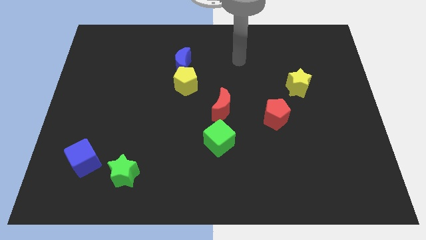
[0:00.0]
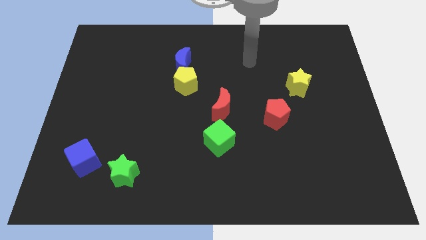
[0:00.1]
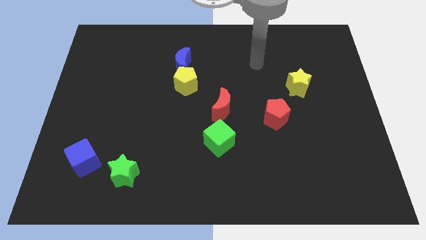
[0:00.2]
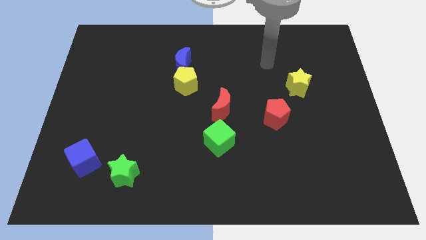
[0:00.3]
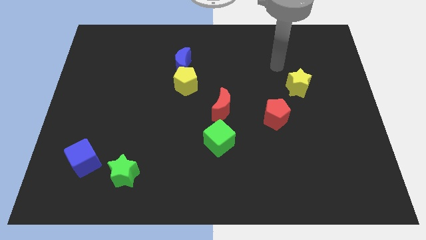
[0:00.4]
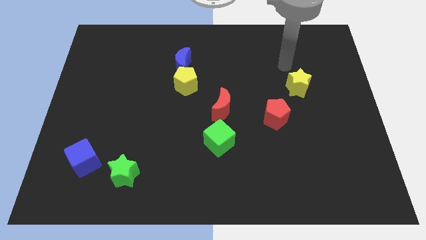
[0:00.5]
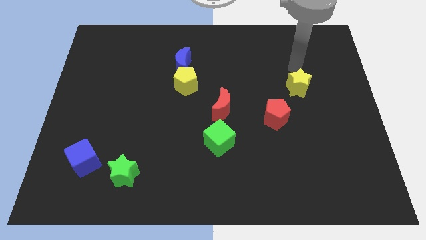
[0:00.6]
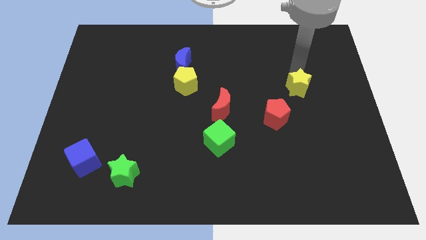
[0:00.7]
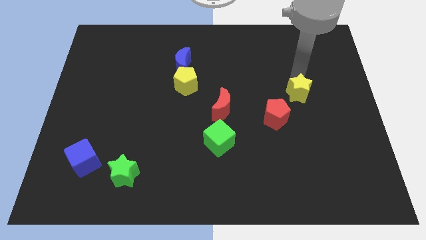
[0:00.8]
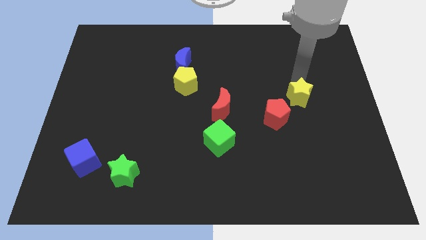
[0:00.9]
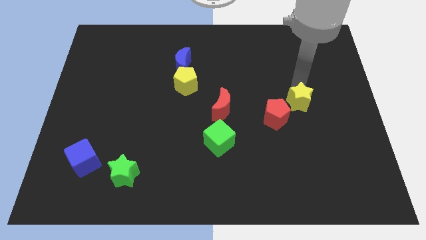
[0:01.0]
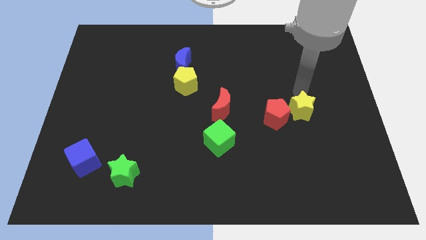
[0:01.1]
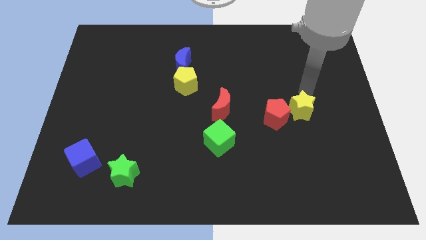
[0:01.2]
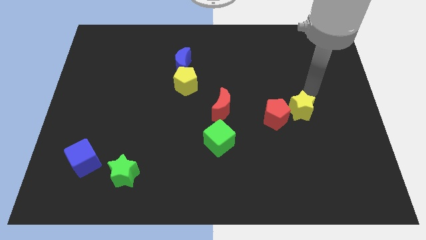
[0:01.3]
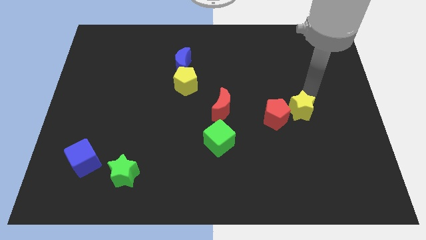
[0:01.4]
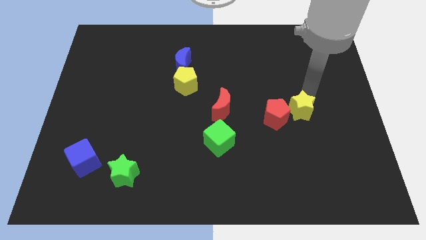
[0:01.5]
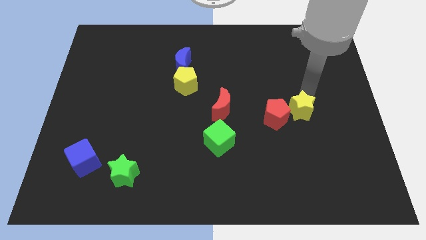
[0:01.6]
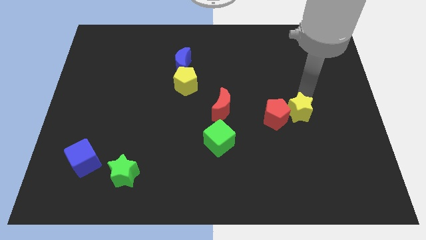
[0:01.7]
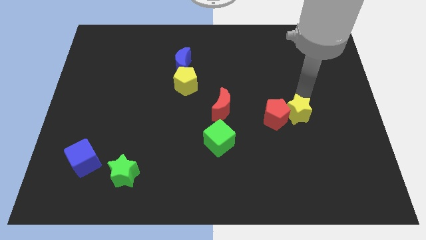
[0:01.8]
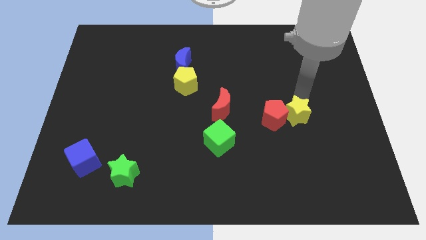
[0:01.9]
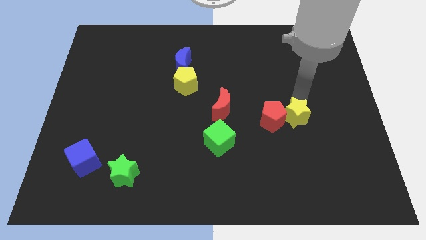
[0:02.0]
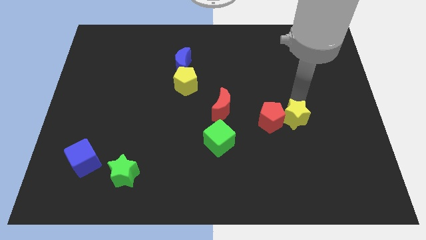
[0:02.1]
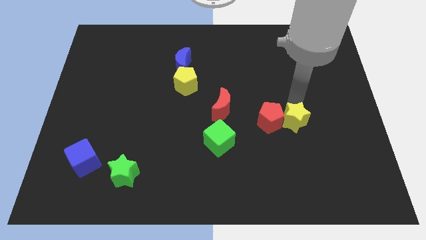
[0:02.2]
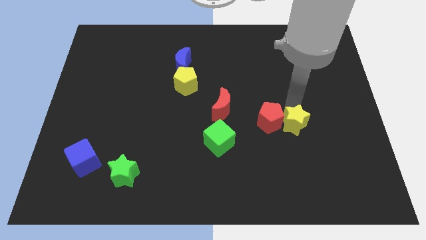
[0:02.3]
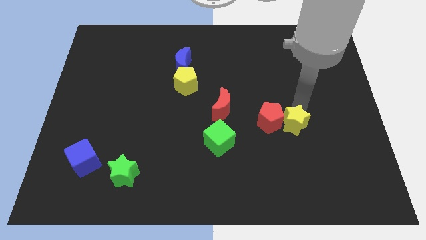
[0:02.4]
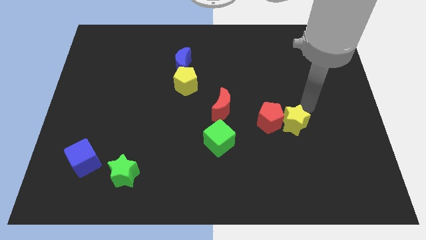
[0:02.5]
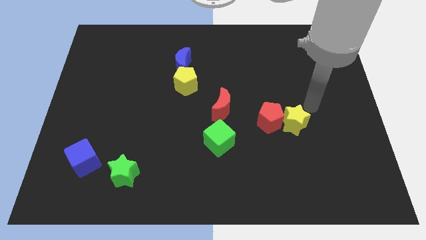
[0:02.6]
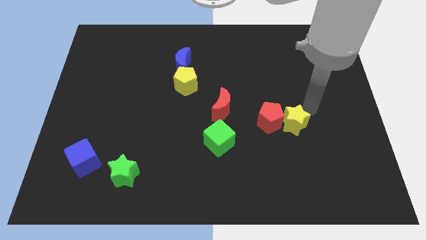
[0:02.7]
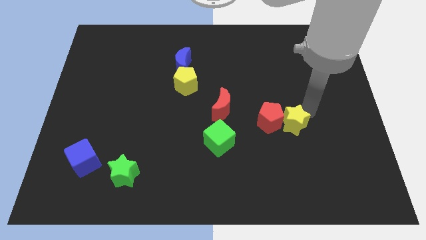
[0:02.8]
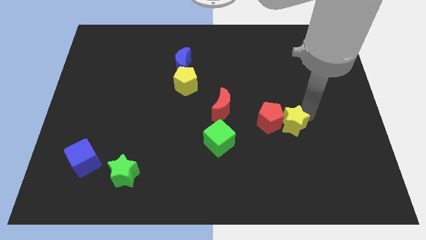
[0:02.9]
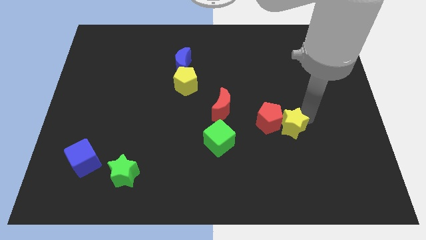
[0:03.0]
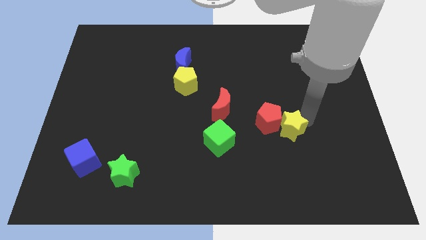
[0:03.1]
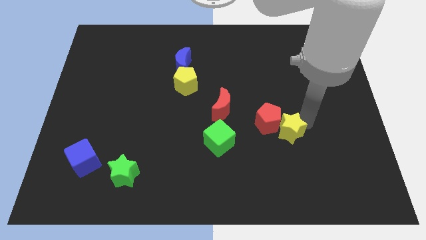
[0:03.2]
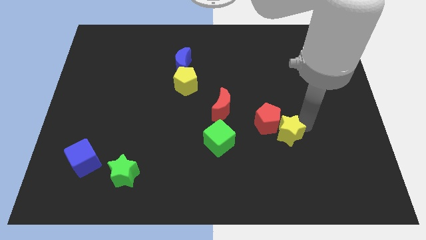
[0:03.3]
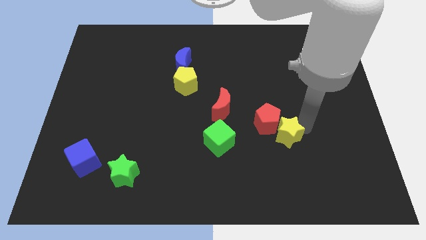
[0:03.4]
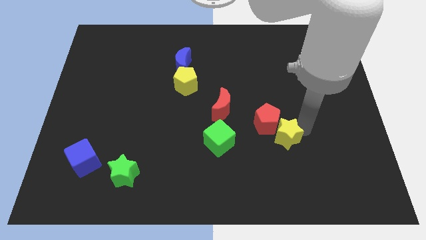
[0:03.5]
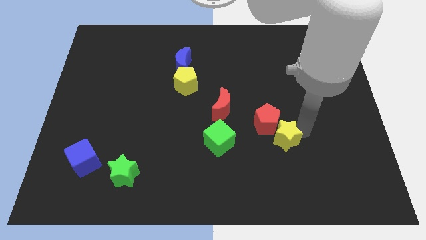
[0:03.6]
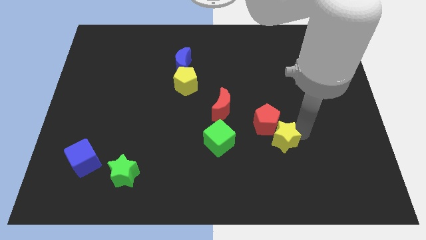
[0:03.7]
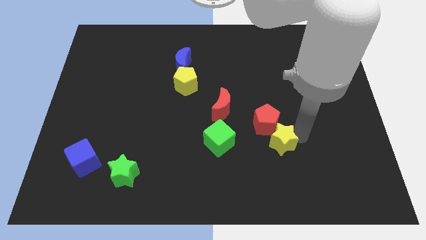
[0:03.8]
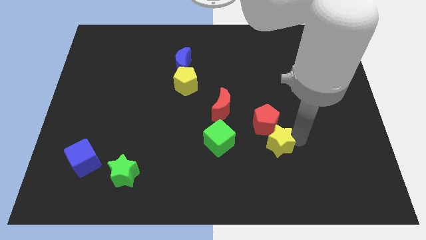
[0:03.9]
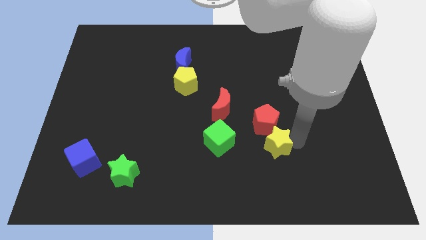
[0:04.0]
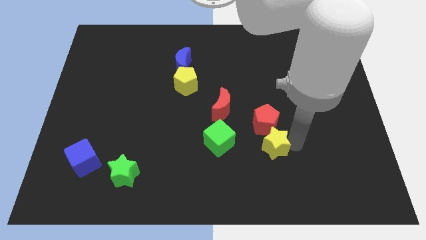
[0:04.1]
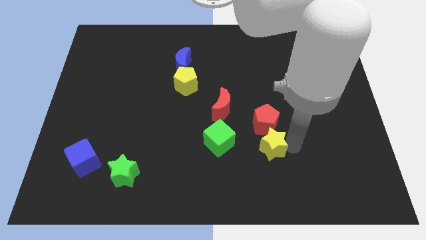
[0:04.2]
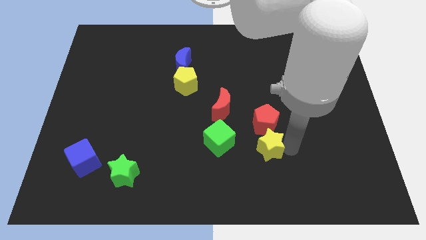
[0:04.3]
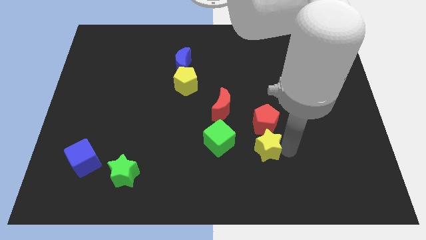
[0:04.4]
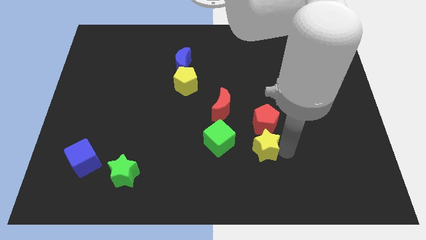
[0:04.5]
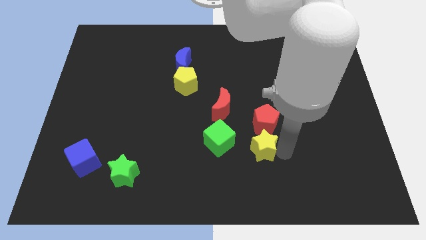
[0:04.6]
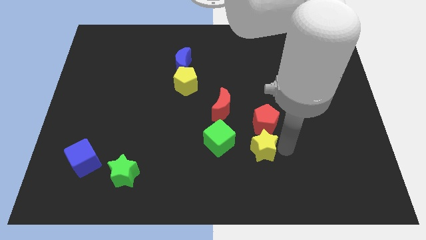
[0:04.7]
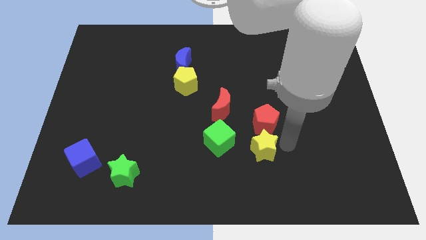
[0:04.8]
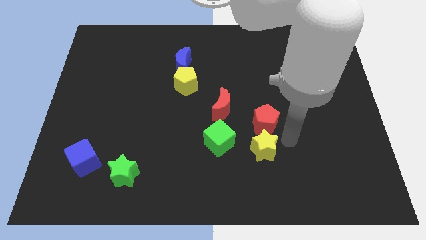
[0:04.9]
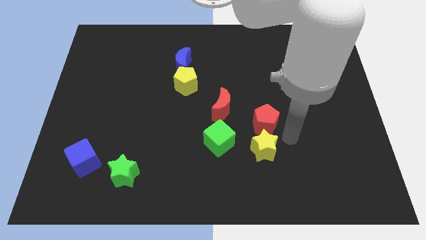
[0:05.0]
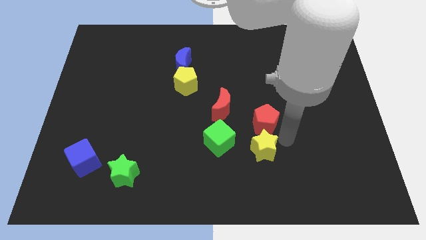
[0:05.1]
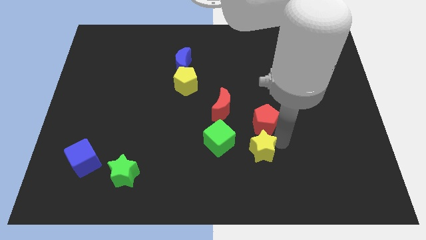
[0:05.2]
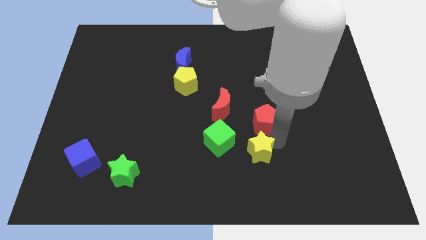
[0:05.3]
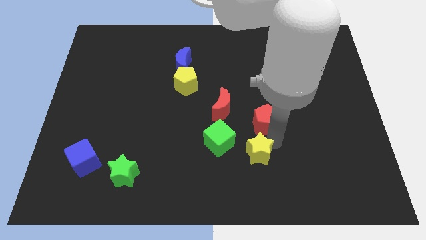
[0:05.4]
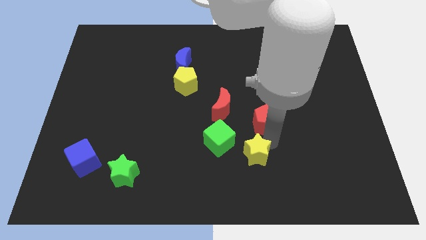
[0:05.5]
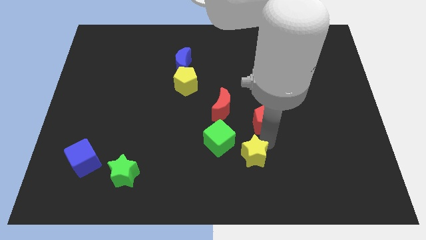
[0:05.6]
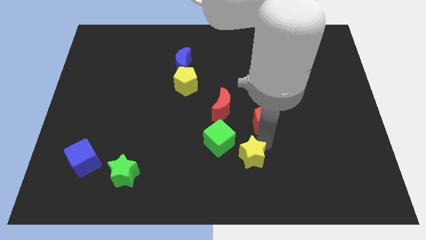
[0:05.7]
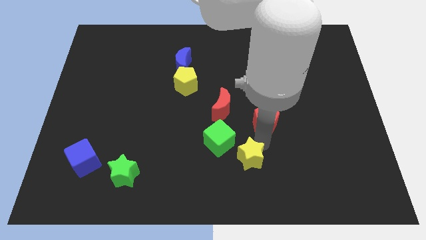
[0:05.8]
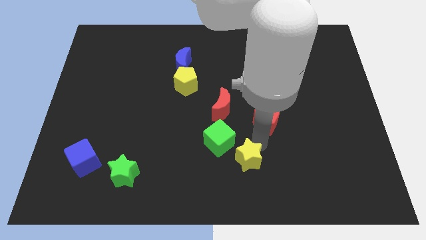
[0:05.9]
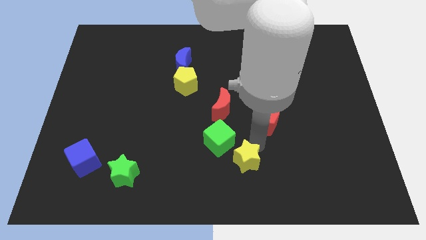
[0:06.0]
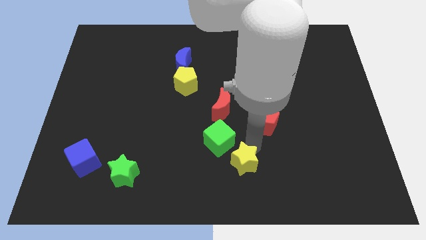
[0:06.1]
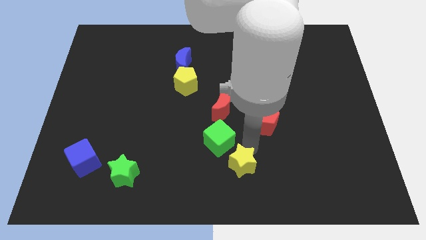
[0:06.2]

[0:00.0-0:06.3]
slide the yellow star to the bottom of the green cube

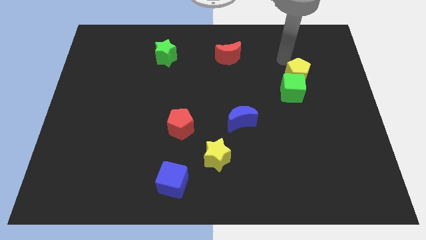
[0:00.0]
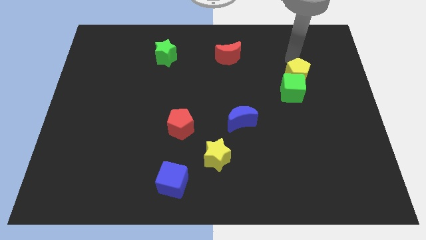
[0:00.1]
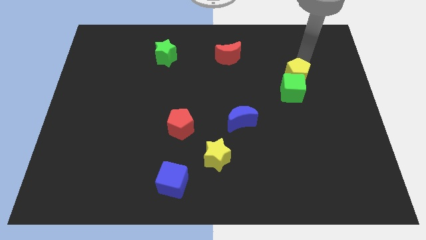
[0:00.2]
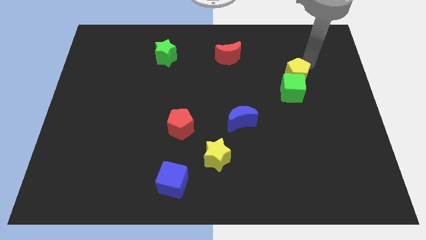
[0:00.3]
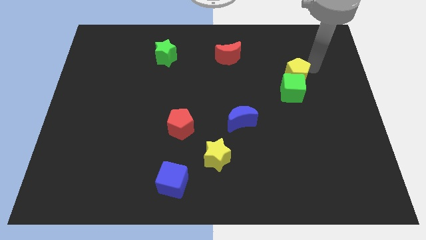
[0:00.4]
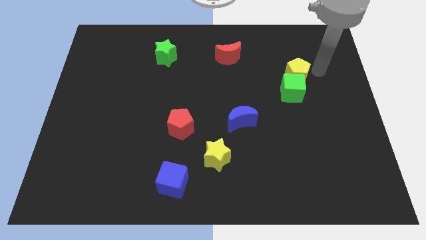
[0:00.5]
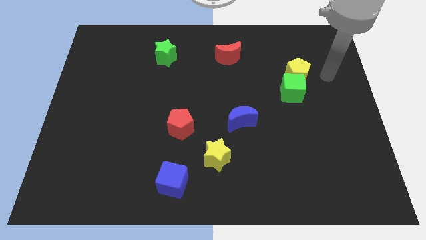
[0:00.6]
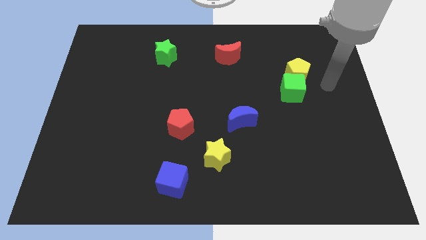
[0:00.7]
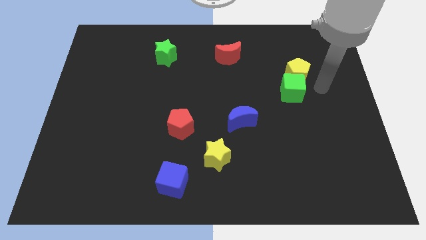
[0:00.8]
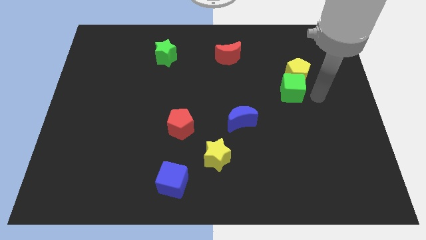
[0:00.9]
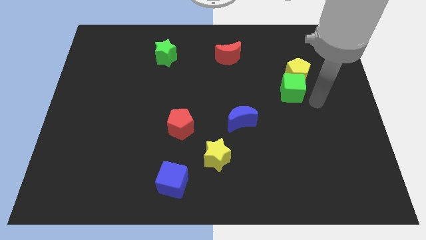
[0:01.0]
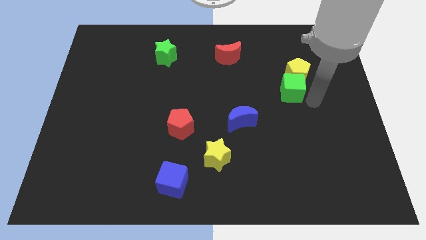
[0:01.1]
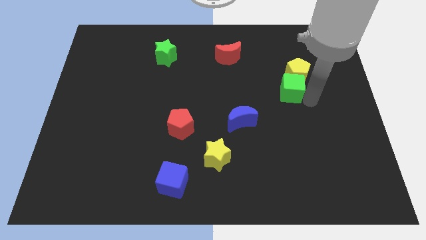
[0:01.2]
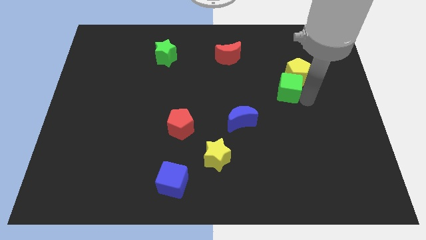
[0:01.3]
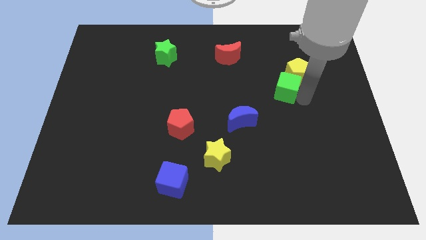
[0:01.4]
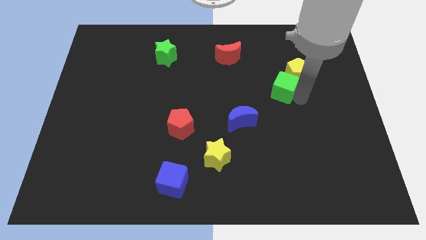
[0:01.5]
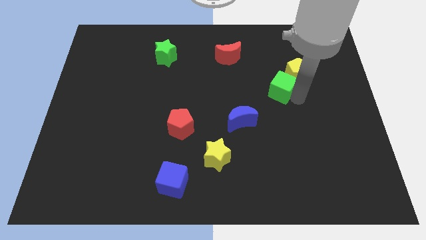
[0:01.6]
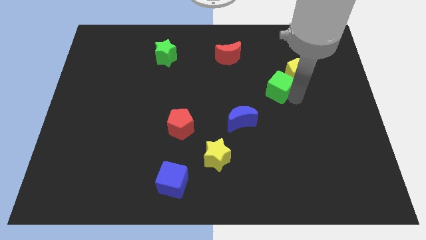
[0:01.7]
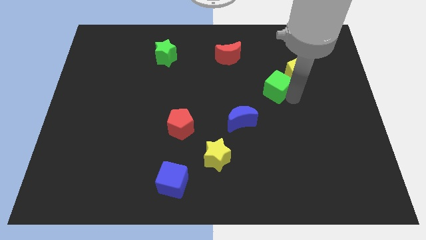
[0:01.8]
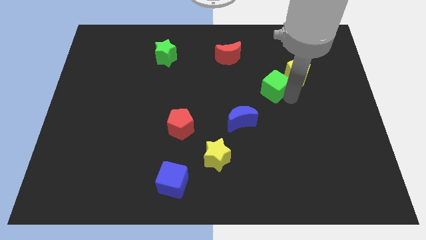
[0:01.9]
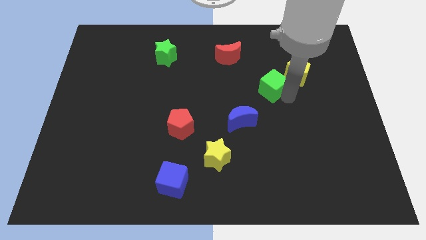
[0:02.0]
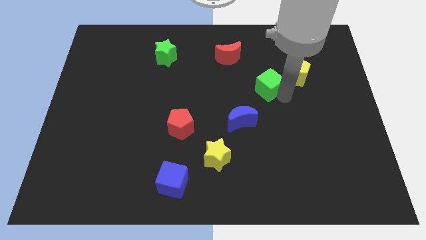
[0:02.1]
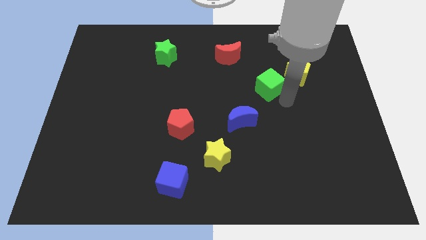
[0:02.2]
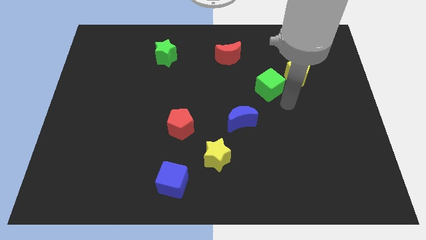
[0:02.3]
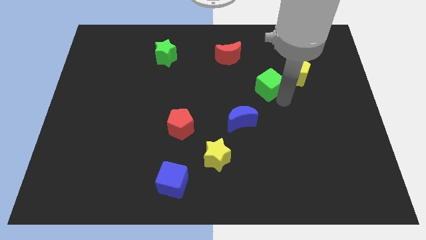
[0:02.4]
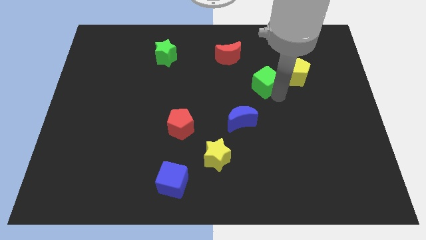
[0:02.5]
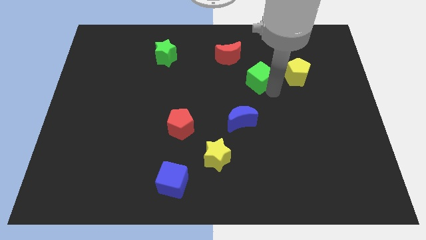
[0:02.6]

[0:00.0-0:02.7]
put the green cube to the bottom right side of the red moon
